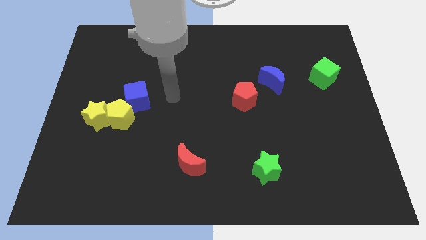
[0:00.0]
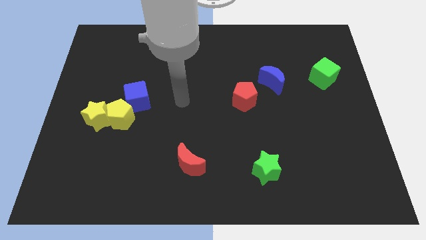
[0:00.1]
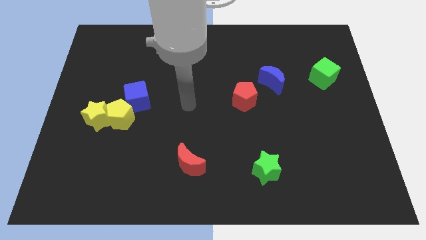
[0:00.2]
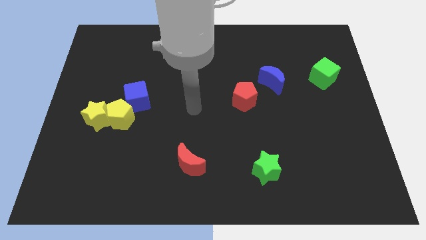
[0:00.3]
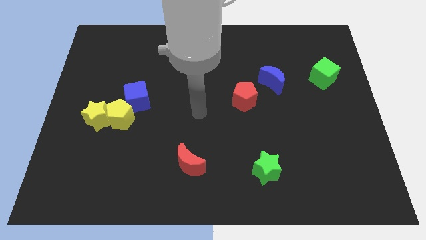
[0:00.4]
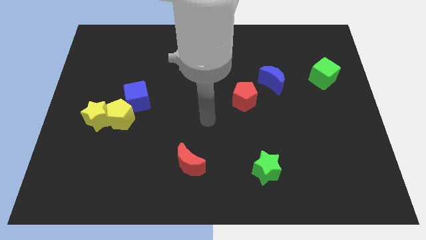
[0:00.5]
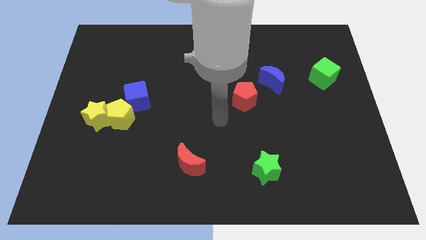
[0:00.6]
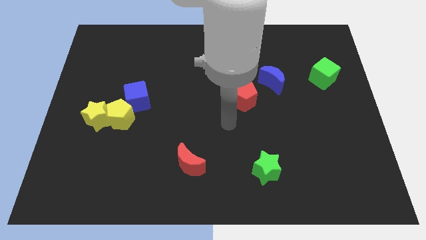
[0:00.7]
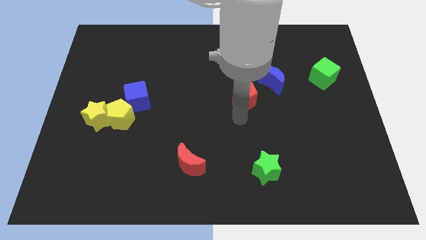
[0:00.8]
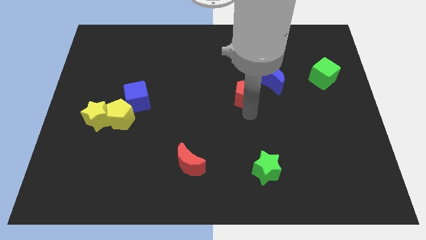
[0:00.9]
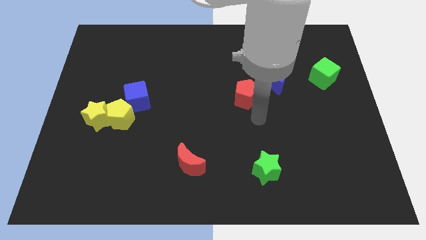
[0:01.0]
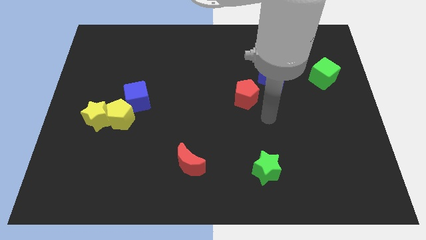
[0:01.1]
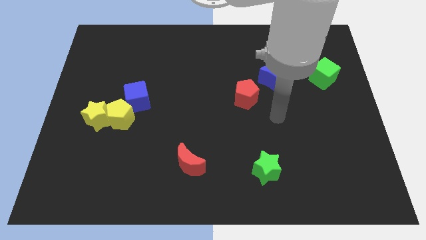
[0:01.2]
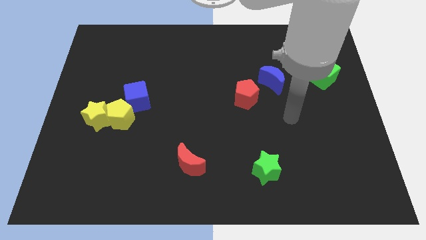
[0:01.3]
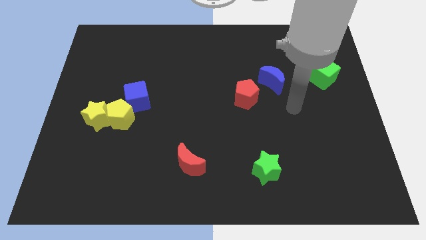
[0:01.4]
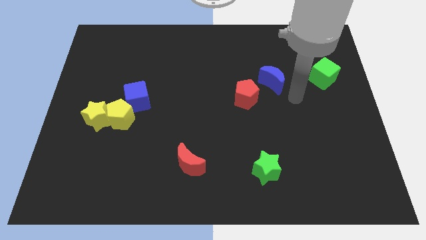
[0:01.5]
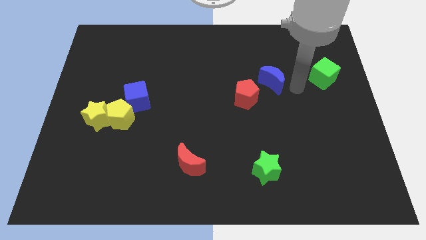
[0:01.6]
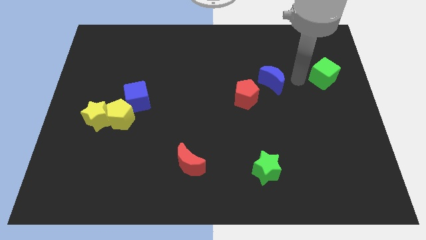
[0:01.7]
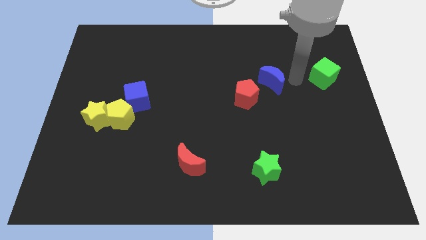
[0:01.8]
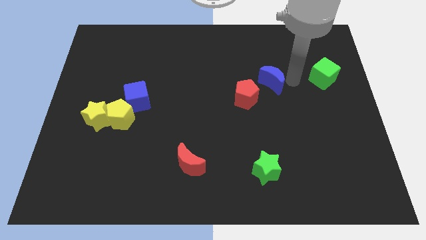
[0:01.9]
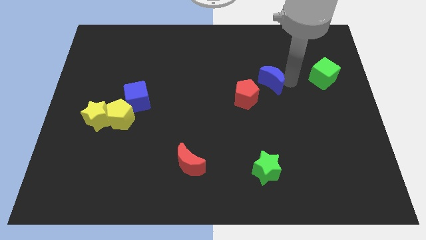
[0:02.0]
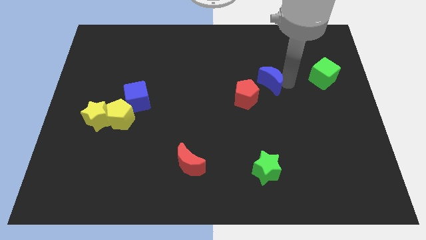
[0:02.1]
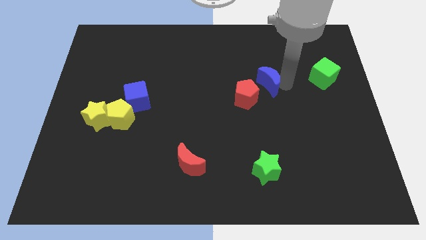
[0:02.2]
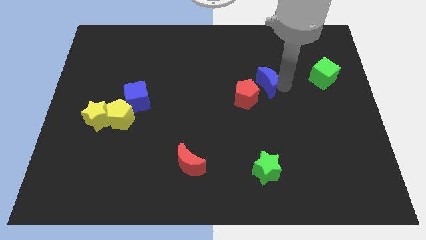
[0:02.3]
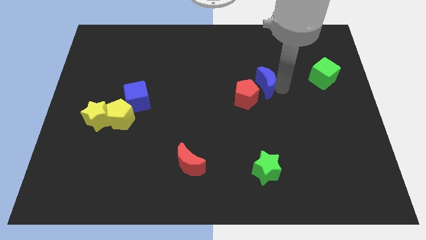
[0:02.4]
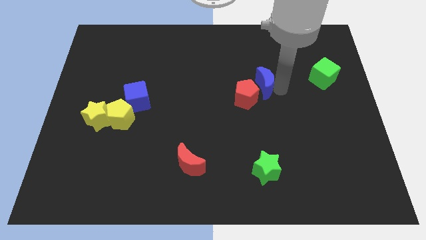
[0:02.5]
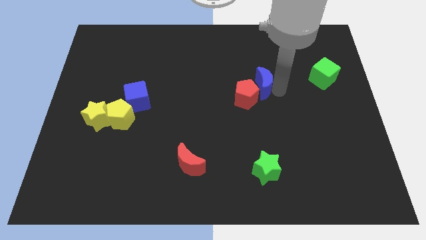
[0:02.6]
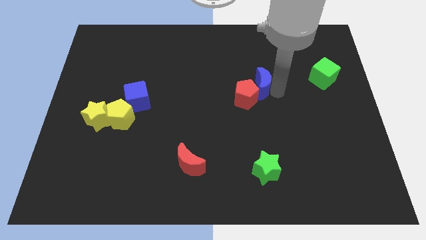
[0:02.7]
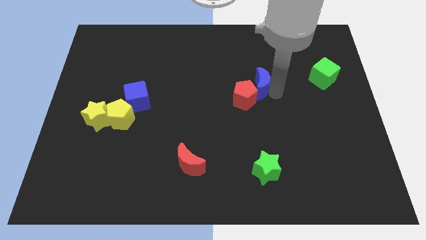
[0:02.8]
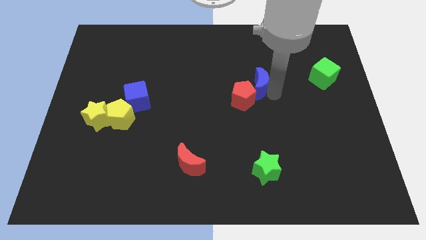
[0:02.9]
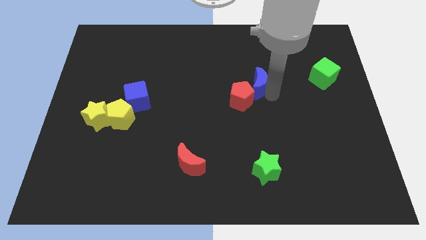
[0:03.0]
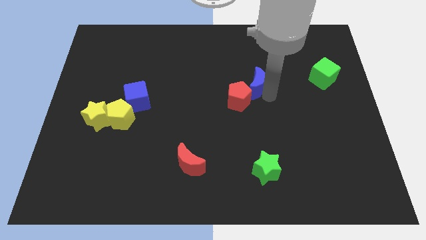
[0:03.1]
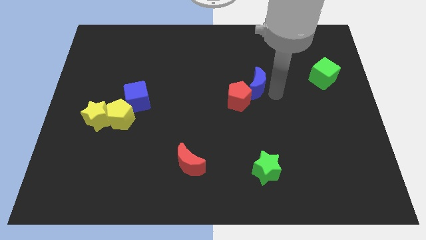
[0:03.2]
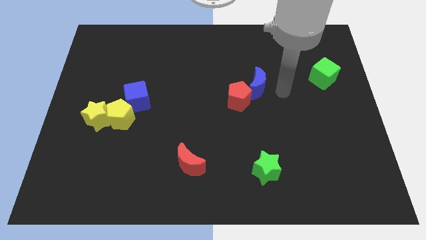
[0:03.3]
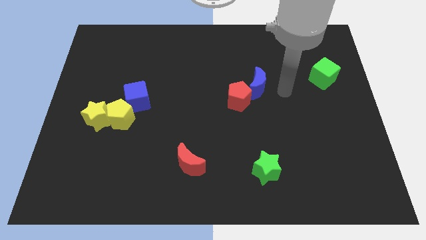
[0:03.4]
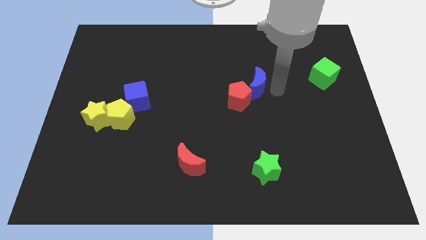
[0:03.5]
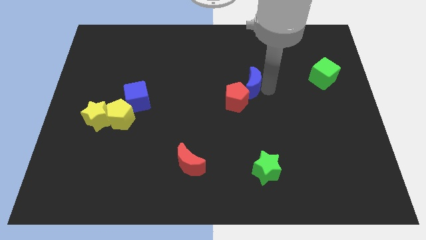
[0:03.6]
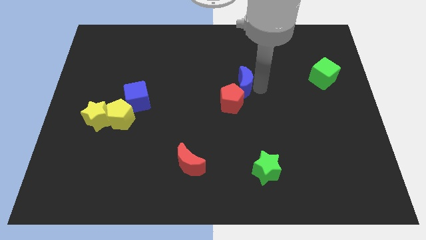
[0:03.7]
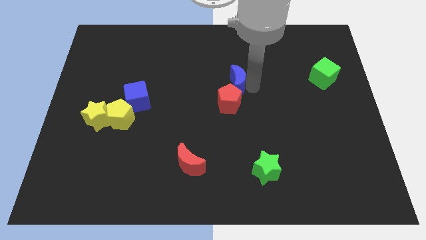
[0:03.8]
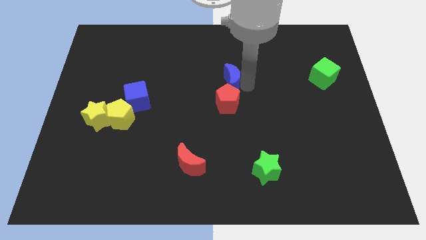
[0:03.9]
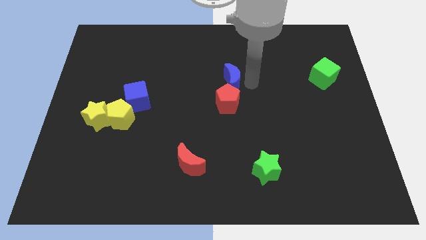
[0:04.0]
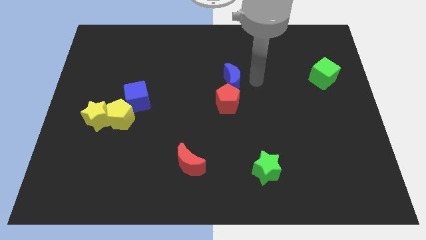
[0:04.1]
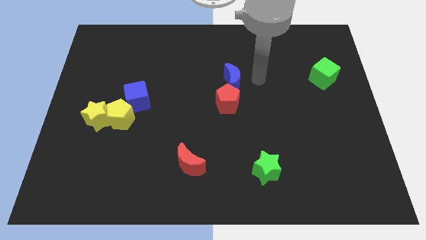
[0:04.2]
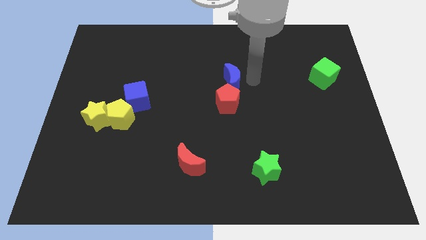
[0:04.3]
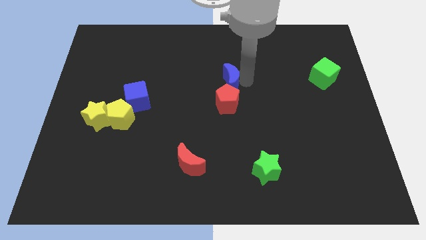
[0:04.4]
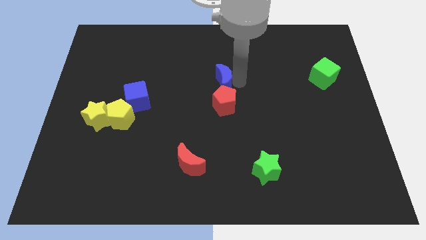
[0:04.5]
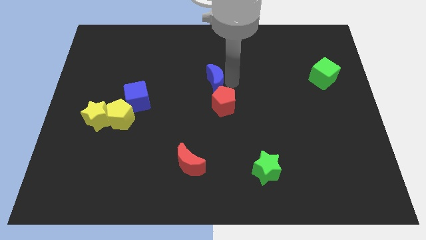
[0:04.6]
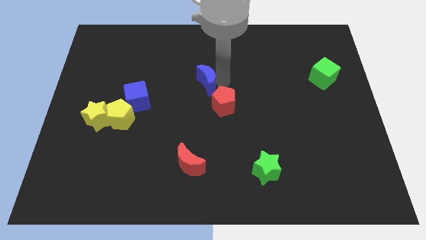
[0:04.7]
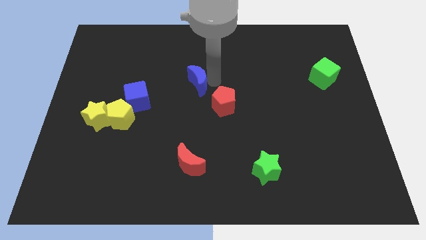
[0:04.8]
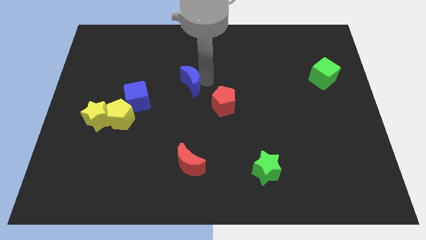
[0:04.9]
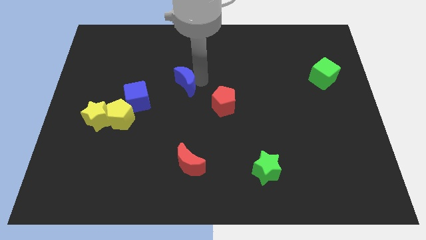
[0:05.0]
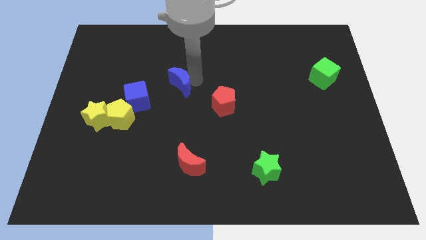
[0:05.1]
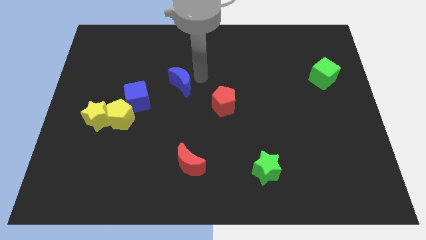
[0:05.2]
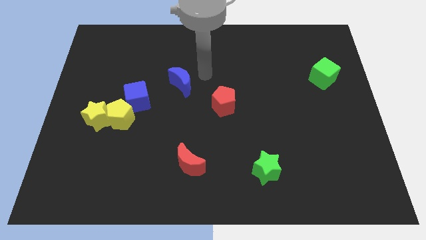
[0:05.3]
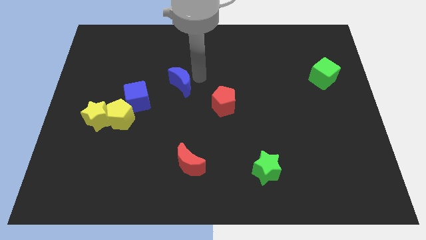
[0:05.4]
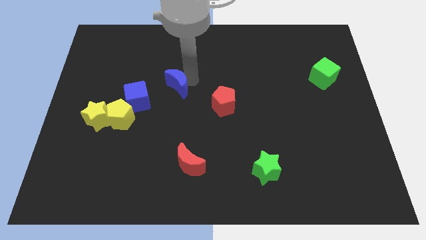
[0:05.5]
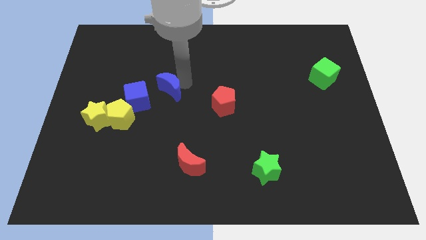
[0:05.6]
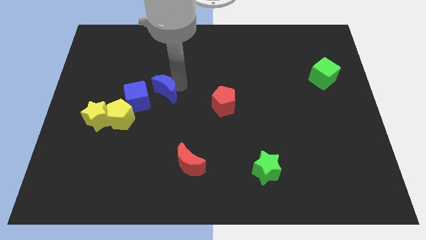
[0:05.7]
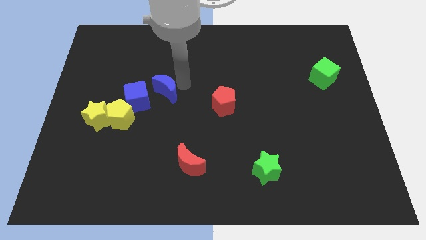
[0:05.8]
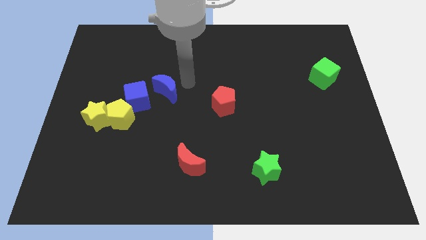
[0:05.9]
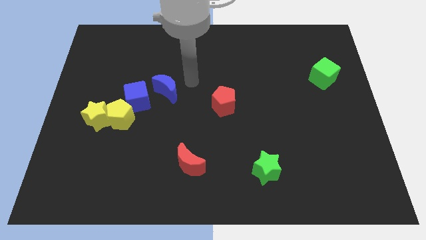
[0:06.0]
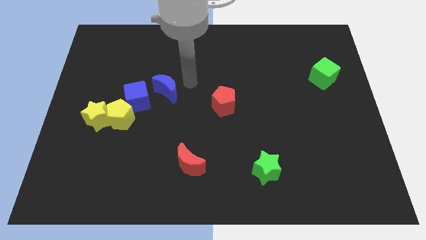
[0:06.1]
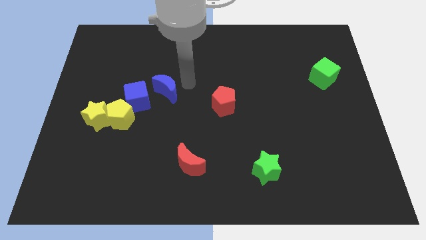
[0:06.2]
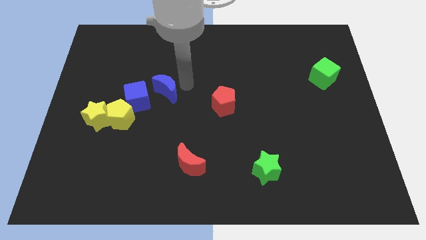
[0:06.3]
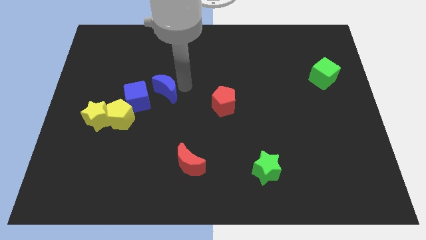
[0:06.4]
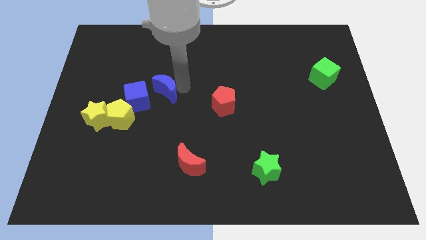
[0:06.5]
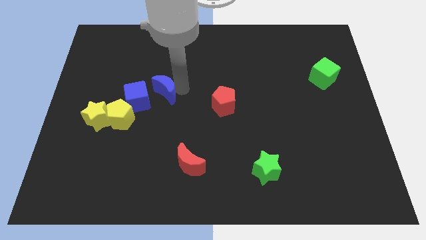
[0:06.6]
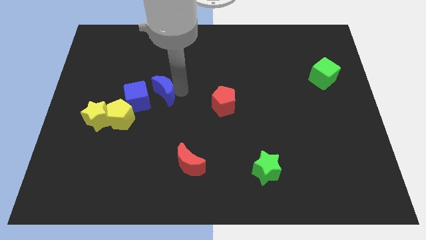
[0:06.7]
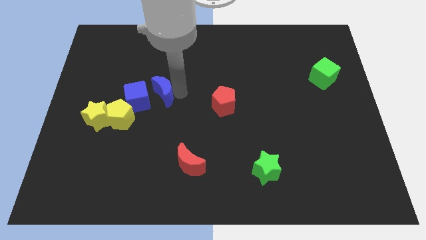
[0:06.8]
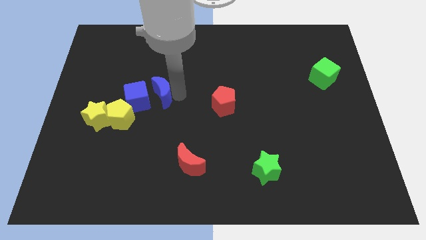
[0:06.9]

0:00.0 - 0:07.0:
put the blue moon next to the blue cube
